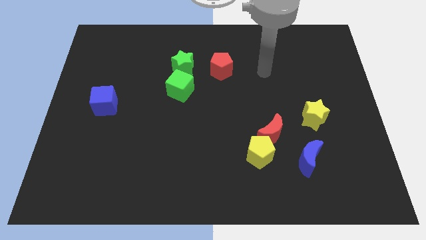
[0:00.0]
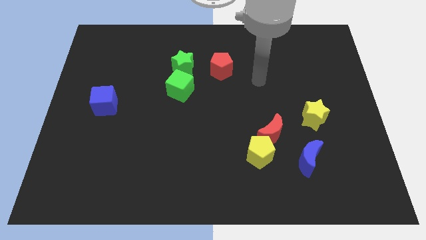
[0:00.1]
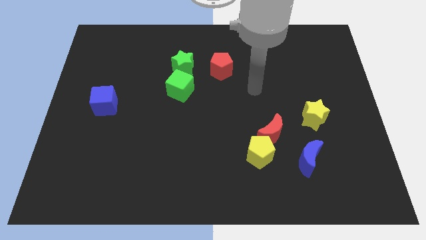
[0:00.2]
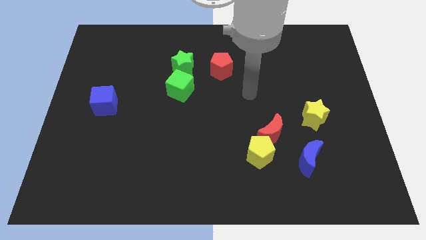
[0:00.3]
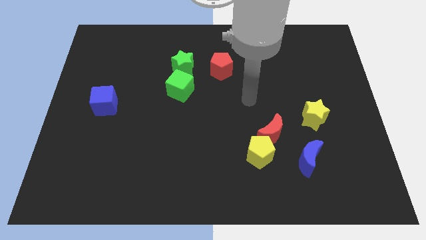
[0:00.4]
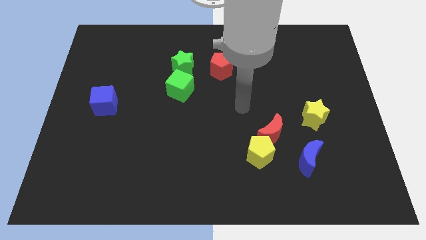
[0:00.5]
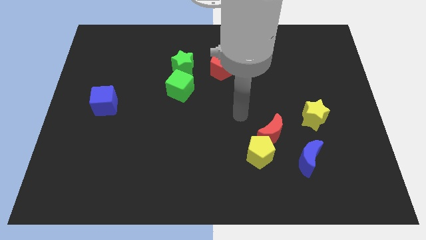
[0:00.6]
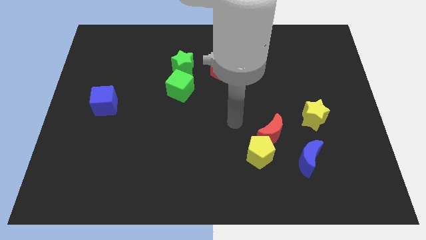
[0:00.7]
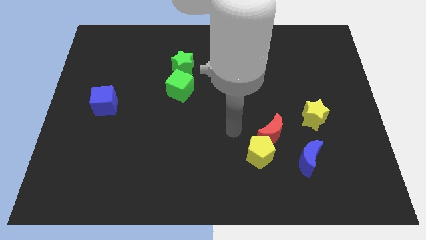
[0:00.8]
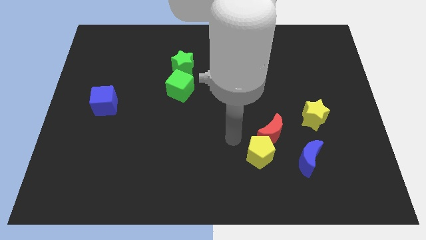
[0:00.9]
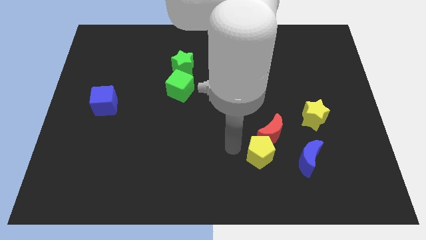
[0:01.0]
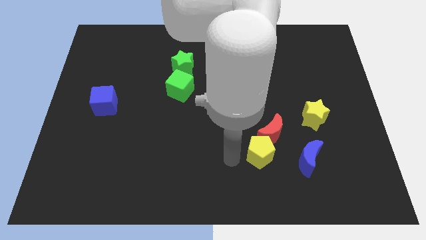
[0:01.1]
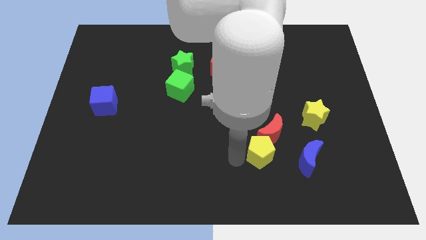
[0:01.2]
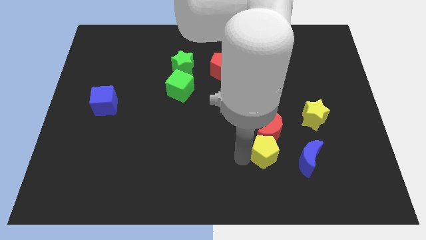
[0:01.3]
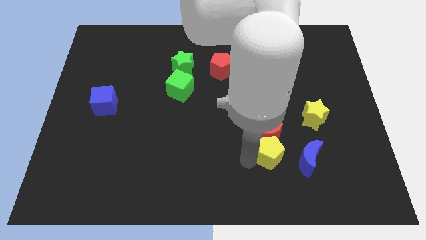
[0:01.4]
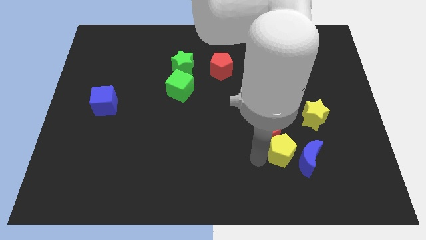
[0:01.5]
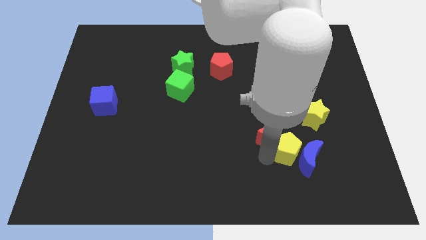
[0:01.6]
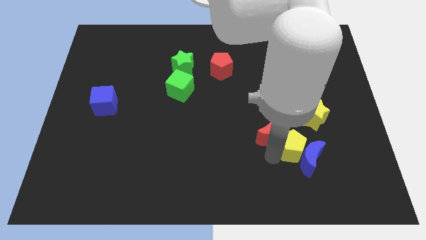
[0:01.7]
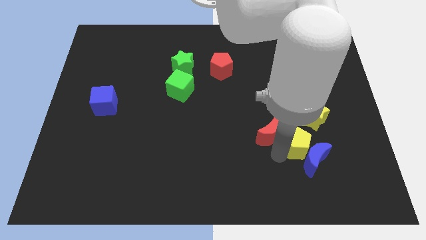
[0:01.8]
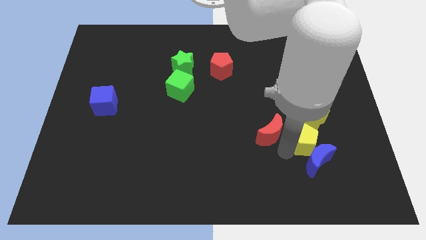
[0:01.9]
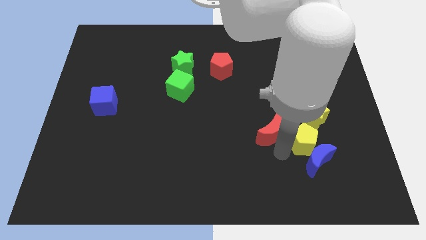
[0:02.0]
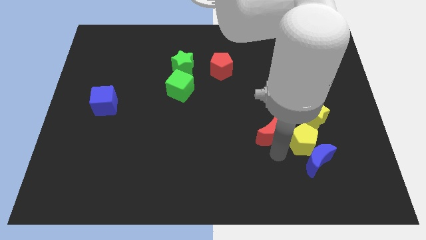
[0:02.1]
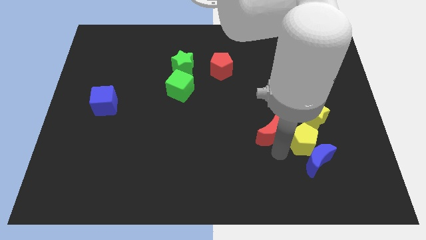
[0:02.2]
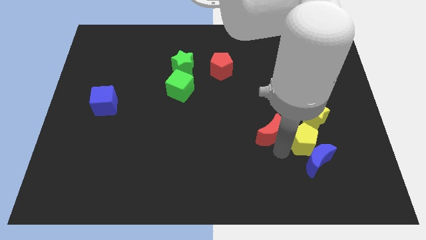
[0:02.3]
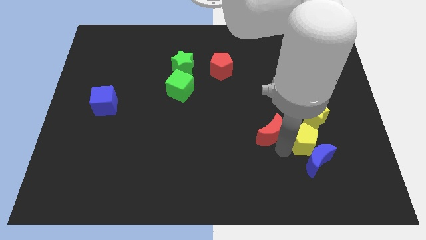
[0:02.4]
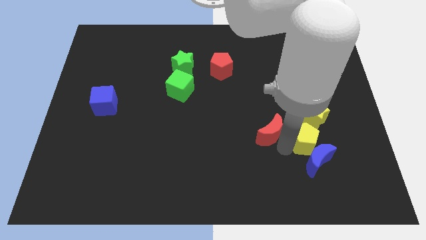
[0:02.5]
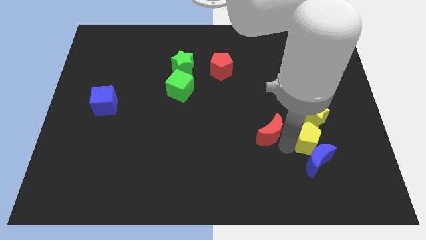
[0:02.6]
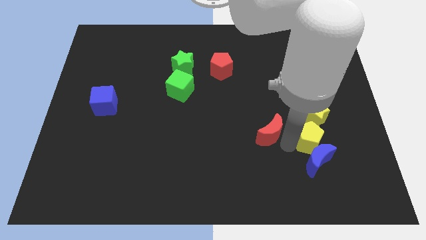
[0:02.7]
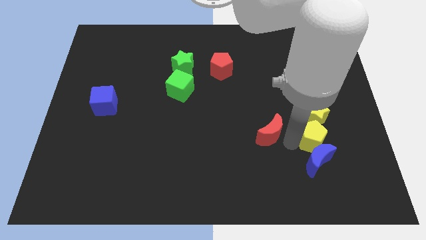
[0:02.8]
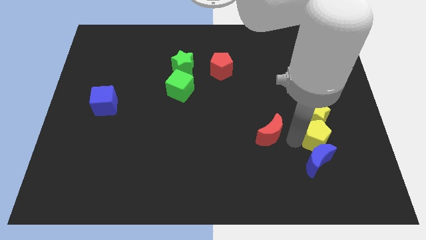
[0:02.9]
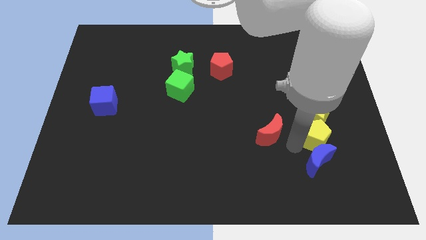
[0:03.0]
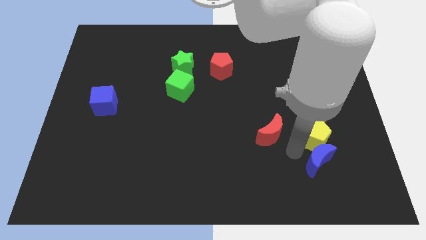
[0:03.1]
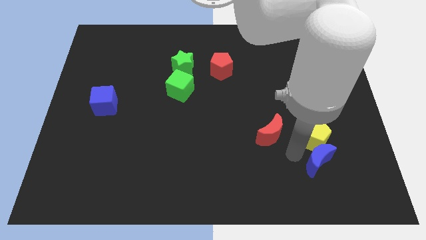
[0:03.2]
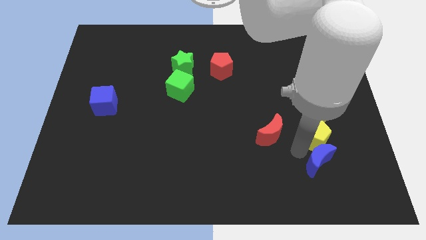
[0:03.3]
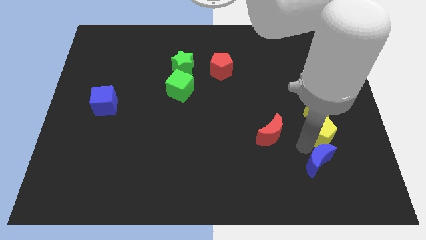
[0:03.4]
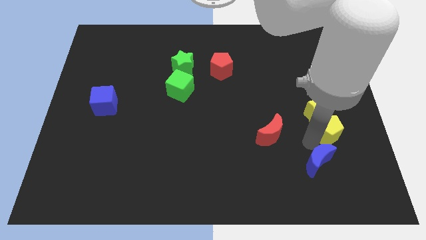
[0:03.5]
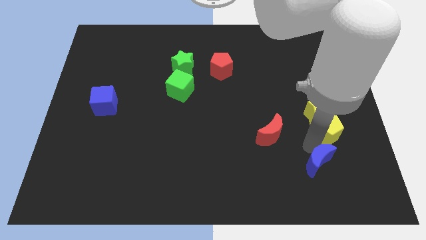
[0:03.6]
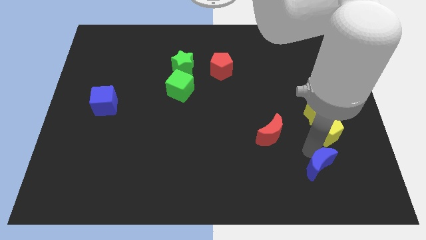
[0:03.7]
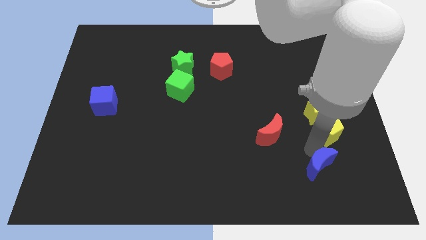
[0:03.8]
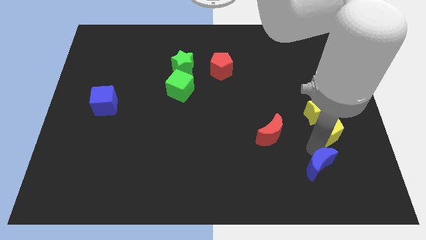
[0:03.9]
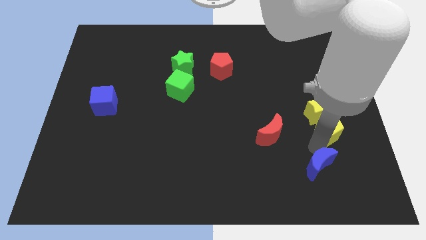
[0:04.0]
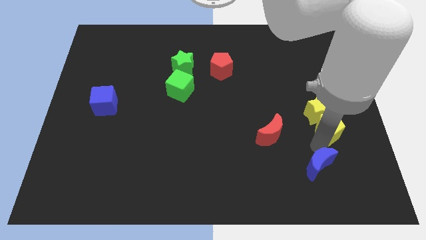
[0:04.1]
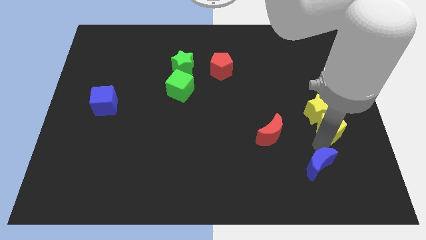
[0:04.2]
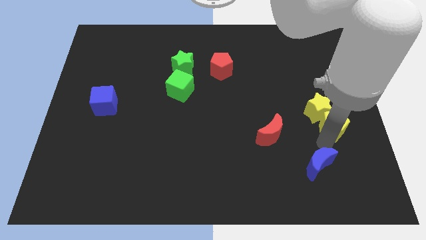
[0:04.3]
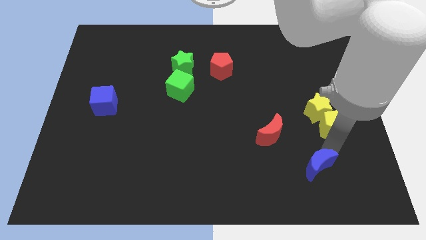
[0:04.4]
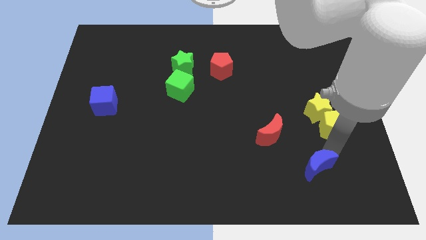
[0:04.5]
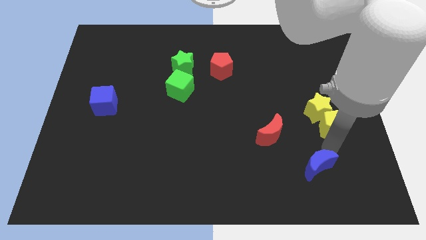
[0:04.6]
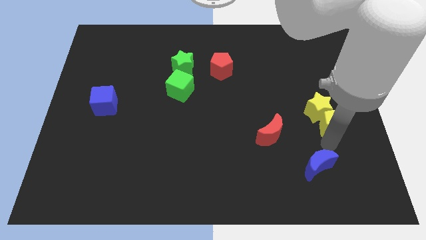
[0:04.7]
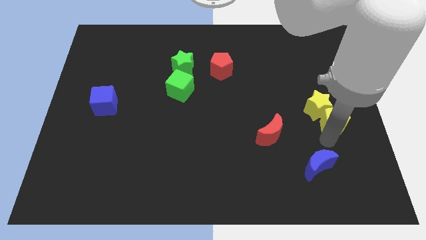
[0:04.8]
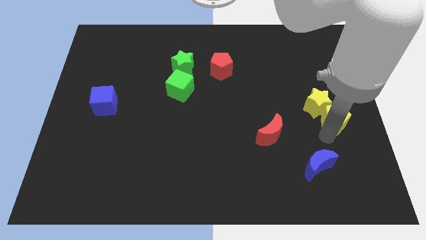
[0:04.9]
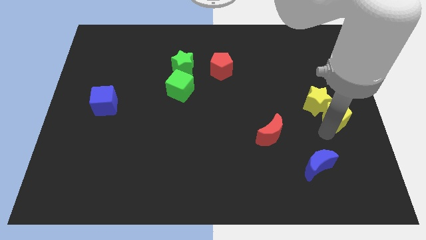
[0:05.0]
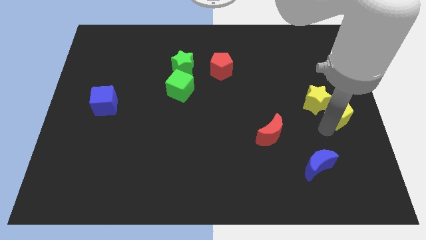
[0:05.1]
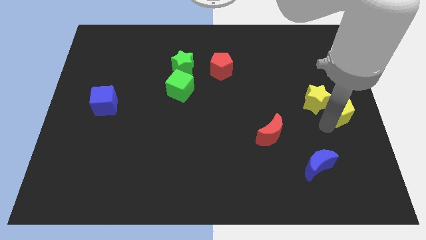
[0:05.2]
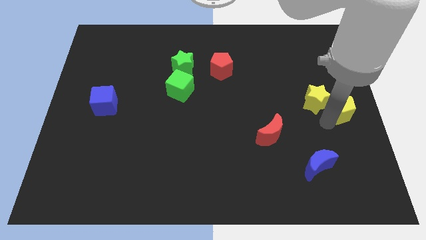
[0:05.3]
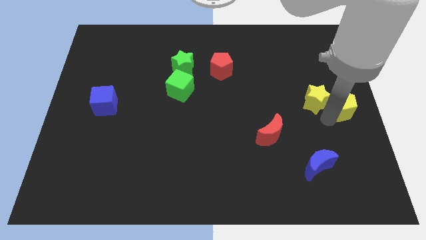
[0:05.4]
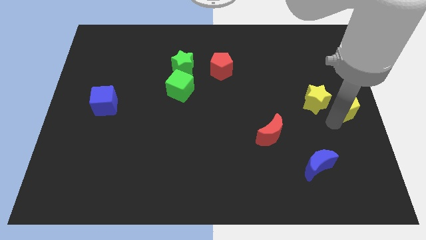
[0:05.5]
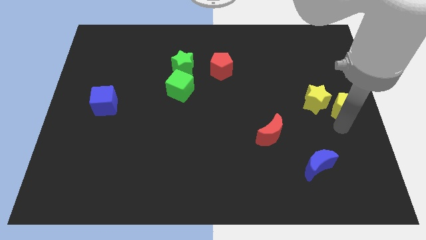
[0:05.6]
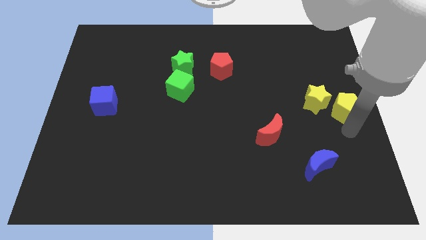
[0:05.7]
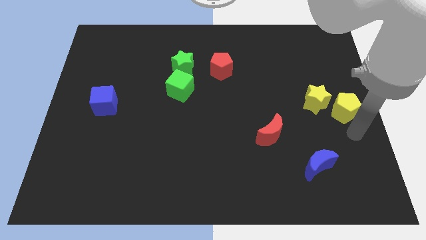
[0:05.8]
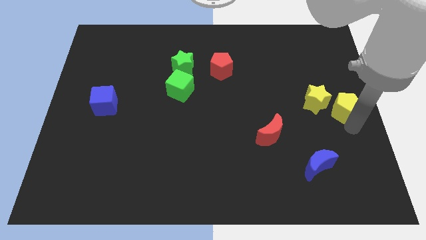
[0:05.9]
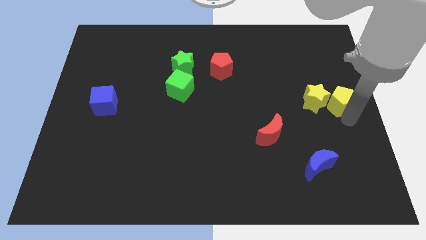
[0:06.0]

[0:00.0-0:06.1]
push the yellow pentagon to the top right side of the yellow star

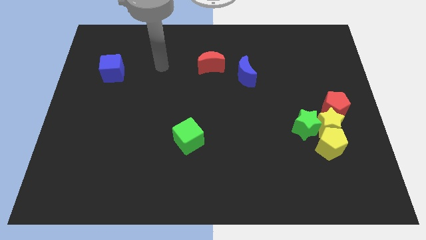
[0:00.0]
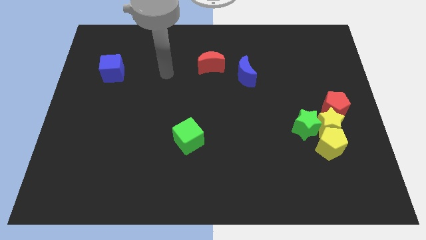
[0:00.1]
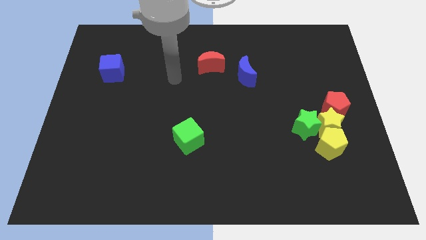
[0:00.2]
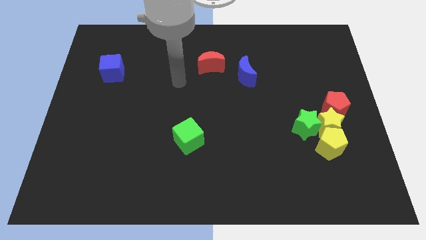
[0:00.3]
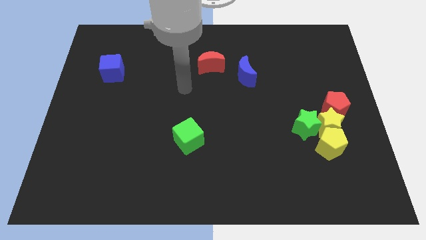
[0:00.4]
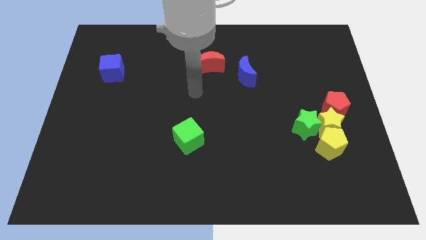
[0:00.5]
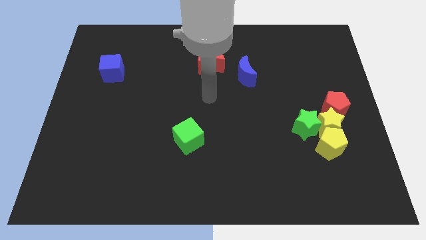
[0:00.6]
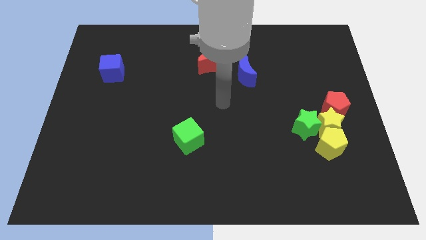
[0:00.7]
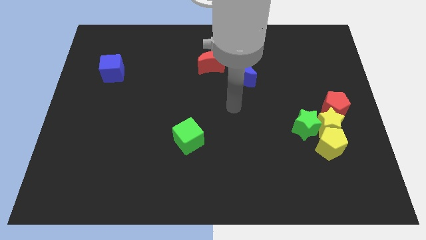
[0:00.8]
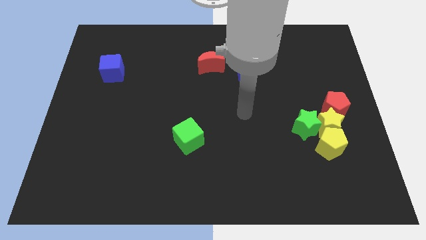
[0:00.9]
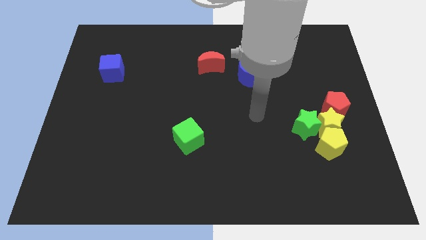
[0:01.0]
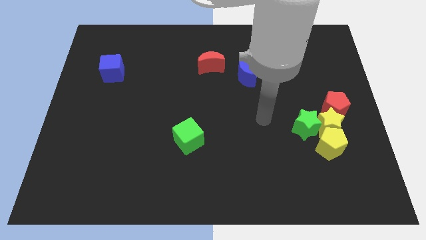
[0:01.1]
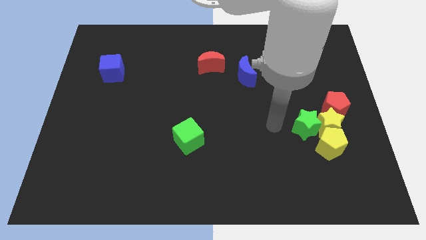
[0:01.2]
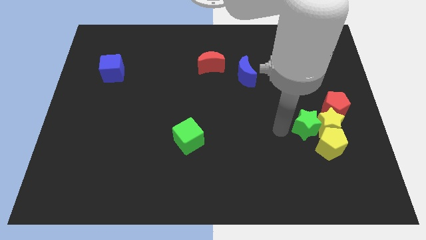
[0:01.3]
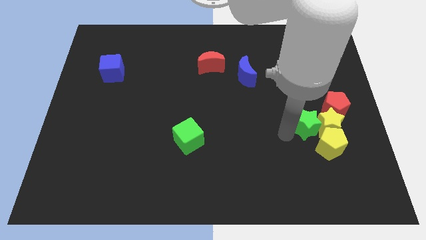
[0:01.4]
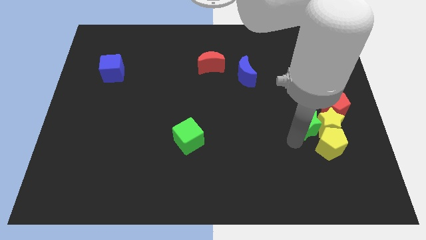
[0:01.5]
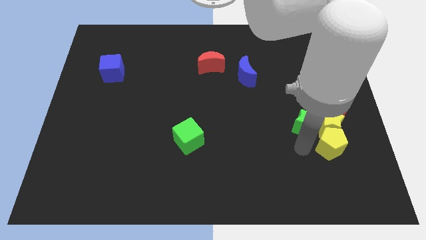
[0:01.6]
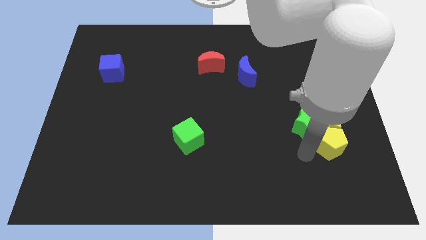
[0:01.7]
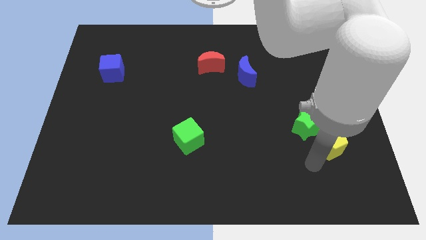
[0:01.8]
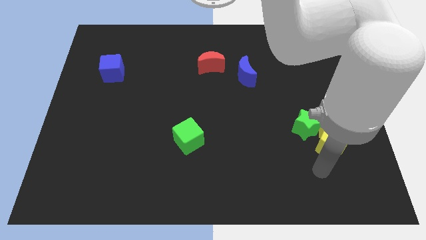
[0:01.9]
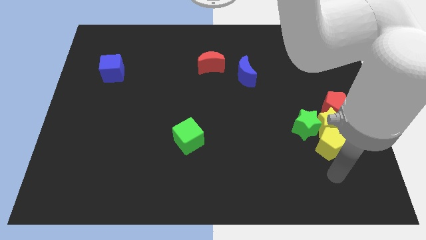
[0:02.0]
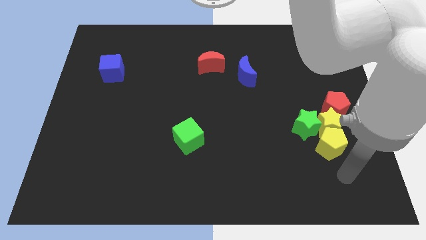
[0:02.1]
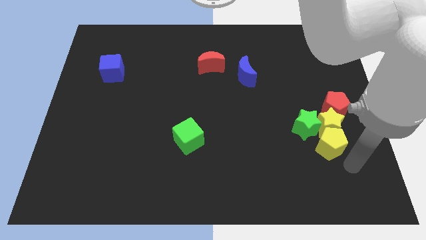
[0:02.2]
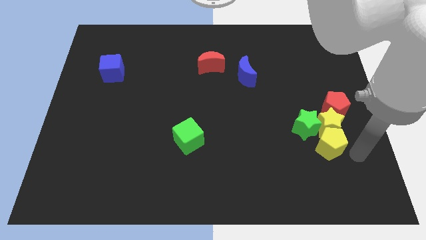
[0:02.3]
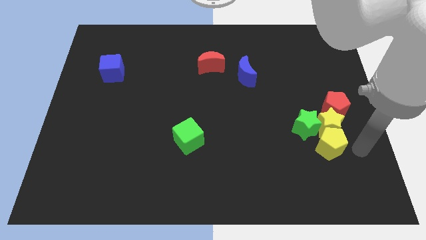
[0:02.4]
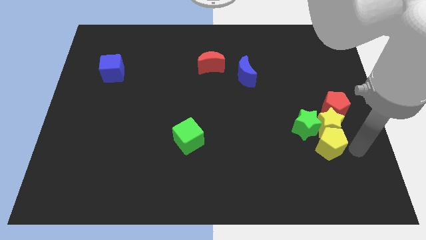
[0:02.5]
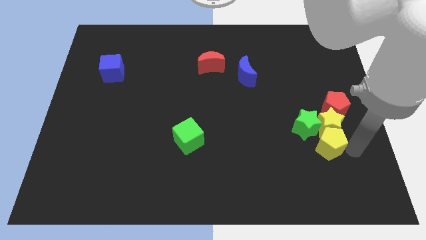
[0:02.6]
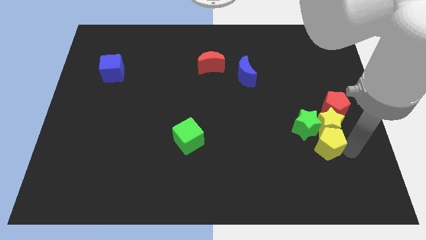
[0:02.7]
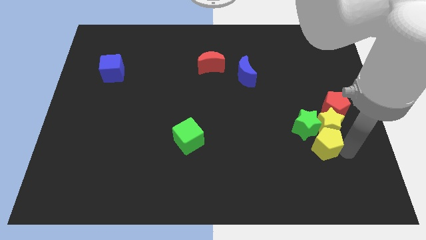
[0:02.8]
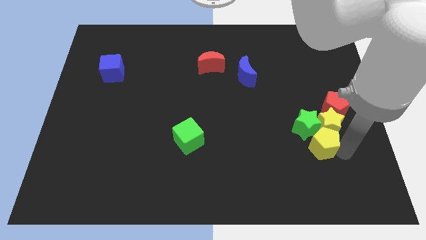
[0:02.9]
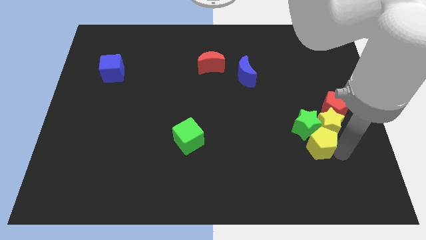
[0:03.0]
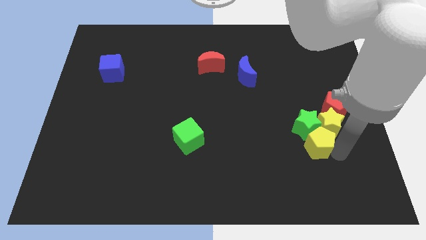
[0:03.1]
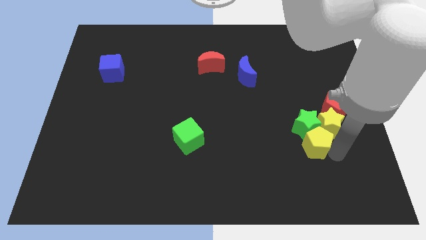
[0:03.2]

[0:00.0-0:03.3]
move the yellow pentagon diagonally down and to the left of the green star
